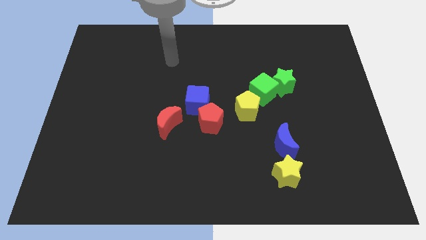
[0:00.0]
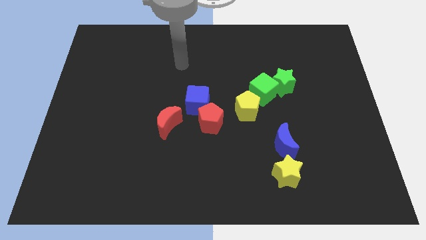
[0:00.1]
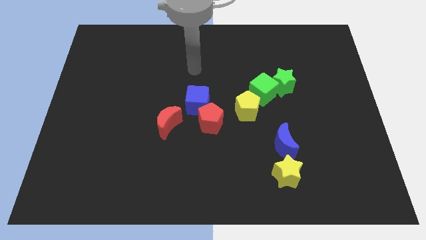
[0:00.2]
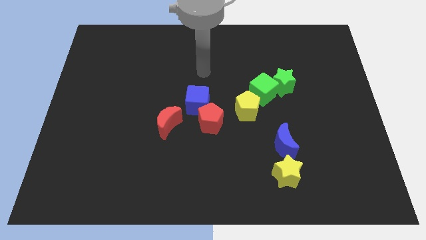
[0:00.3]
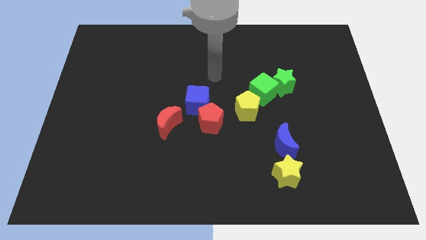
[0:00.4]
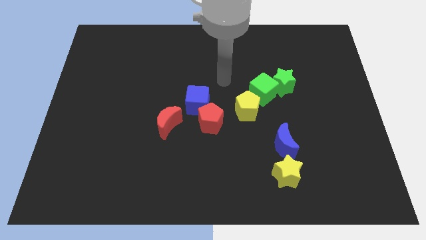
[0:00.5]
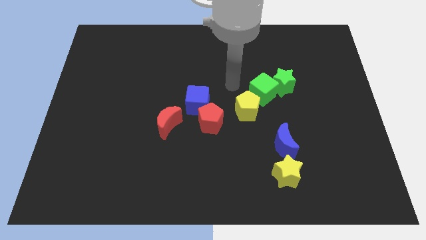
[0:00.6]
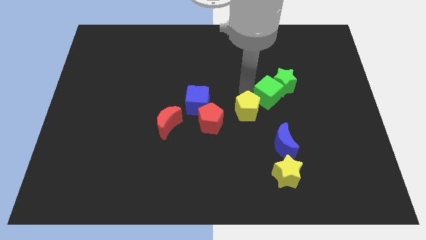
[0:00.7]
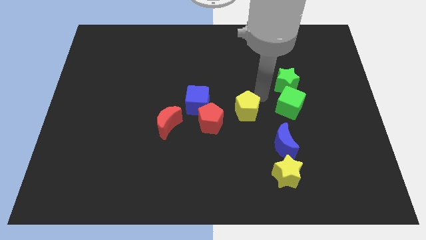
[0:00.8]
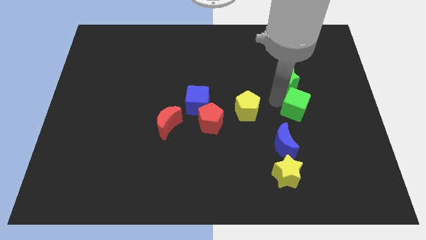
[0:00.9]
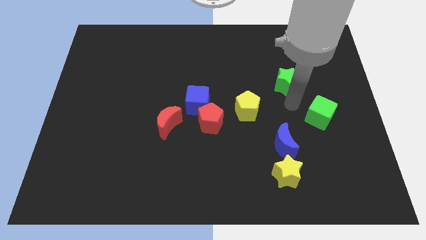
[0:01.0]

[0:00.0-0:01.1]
pull the green star apart from the green cube

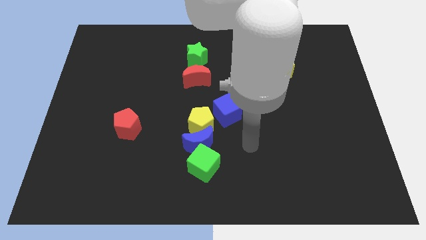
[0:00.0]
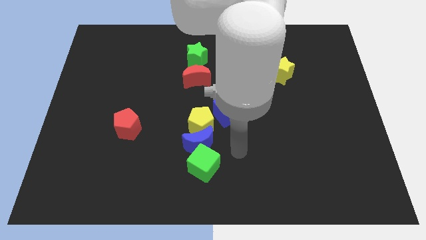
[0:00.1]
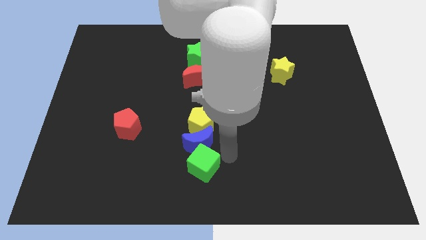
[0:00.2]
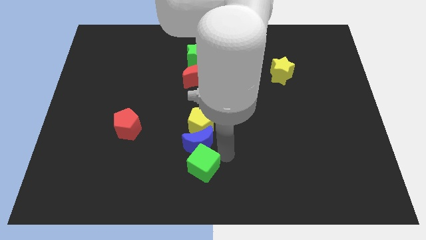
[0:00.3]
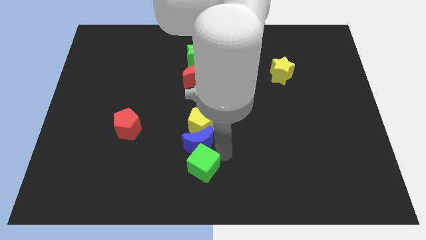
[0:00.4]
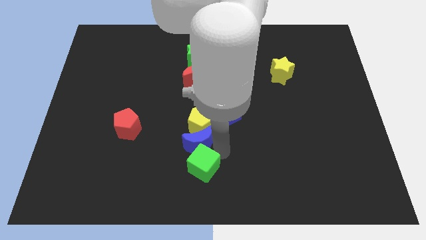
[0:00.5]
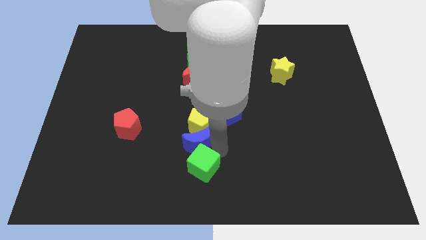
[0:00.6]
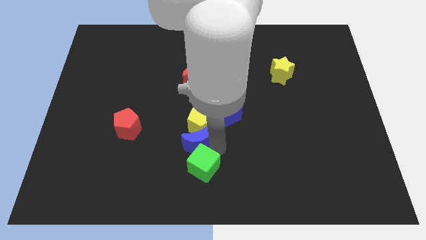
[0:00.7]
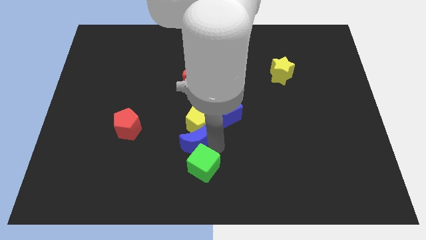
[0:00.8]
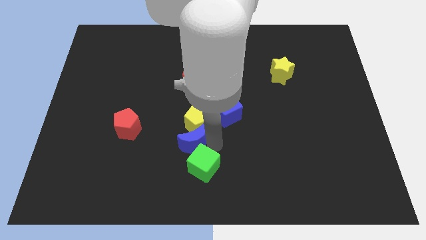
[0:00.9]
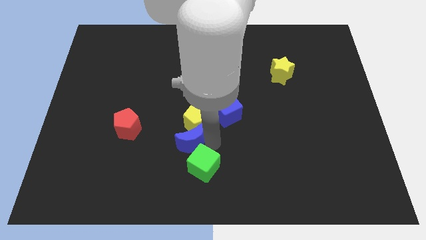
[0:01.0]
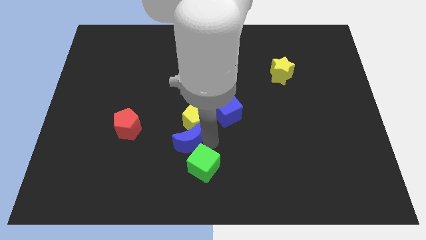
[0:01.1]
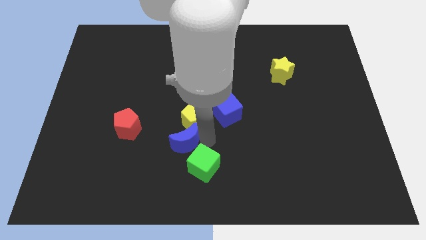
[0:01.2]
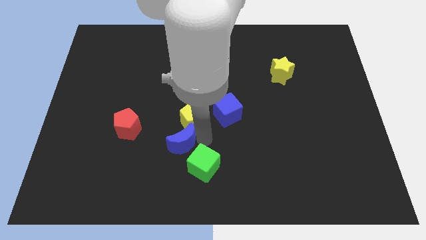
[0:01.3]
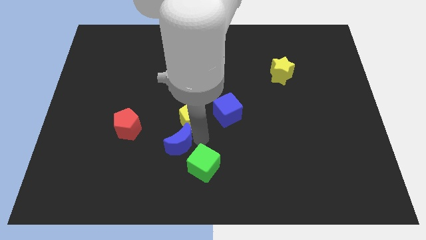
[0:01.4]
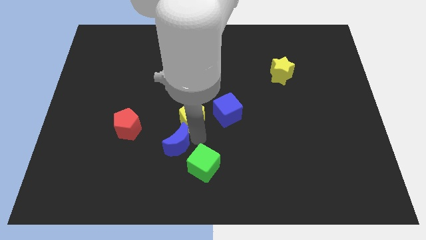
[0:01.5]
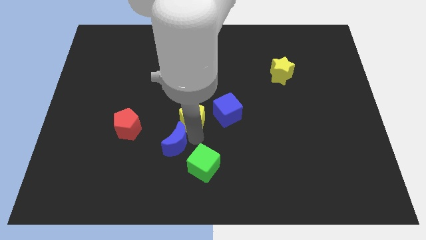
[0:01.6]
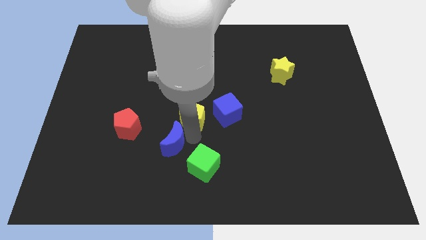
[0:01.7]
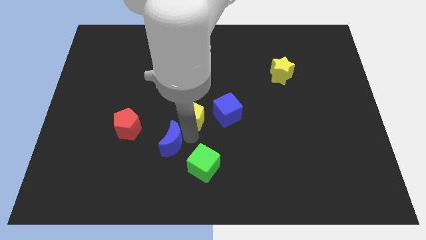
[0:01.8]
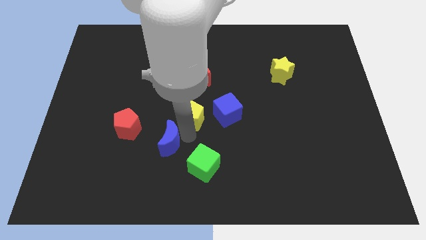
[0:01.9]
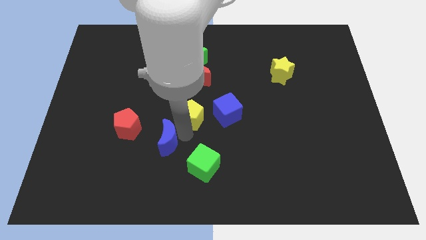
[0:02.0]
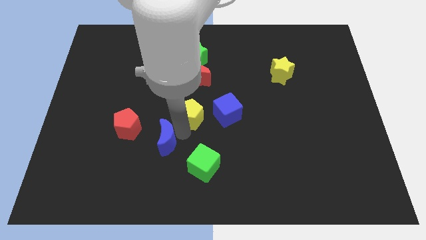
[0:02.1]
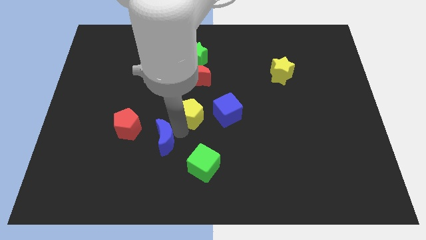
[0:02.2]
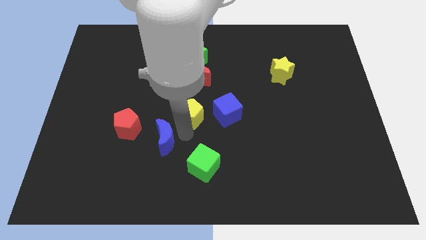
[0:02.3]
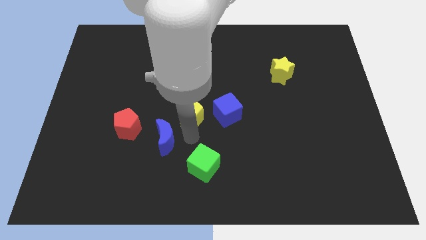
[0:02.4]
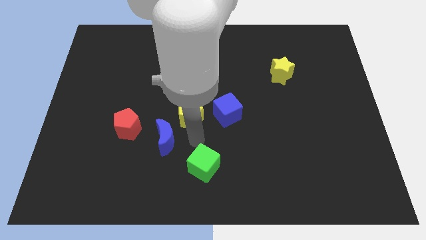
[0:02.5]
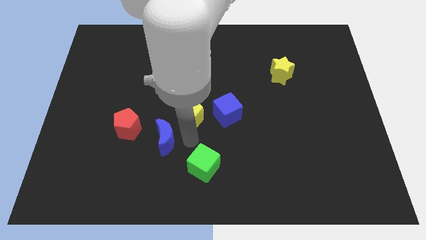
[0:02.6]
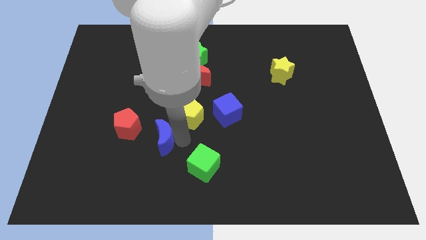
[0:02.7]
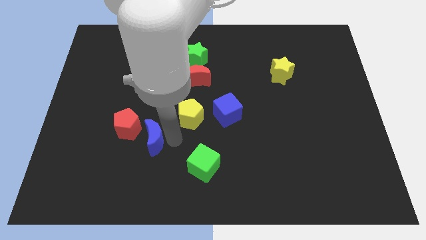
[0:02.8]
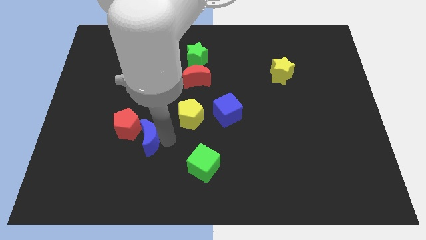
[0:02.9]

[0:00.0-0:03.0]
move the blue moon away from the yellow pentagon and green cube

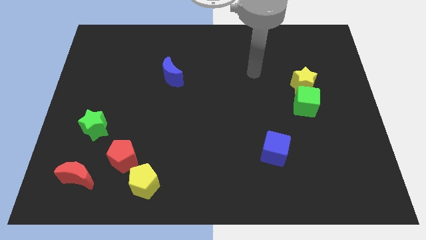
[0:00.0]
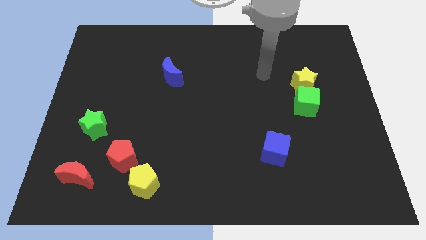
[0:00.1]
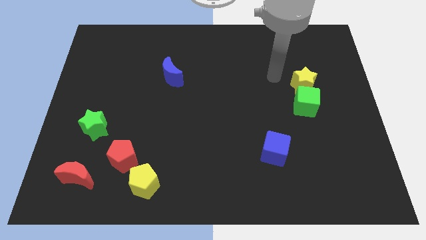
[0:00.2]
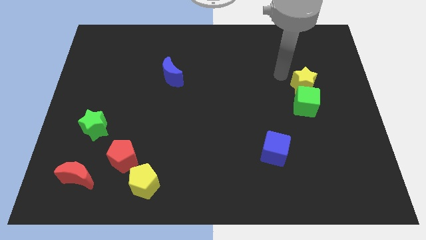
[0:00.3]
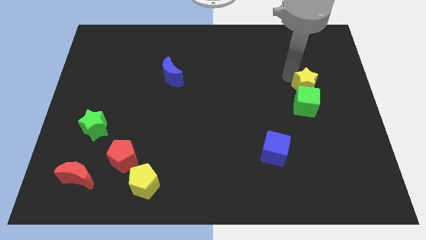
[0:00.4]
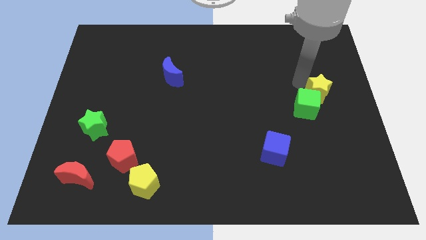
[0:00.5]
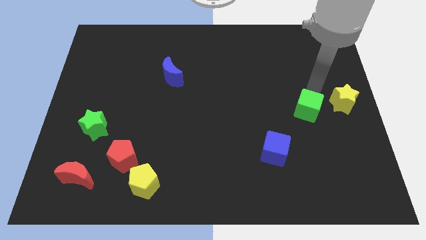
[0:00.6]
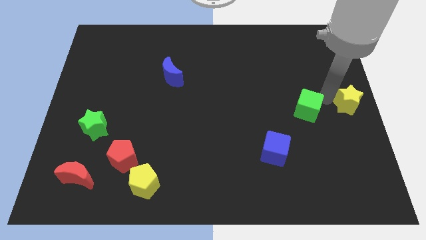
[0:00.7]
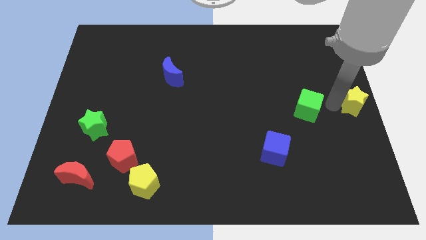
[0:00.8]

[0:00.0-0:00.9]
pull the green cube apart from the yellow star

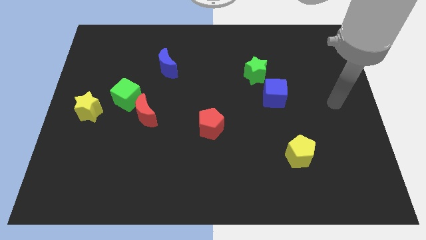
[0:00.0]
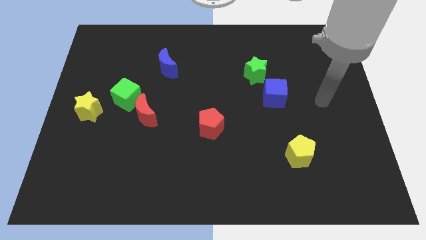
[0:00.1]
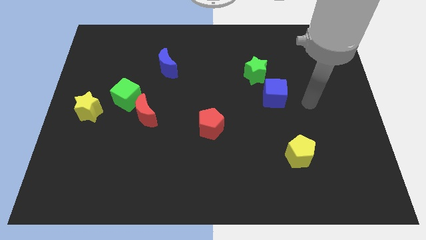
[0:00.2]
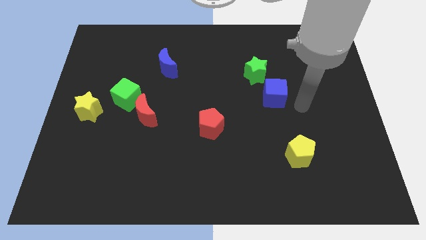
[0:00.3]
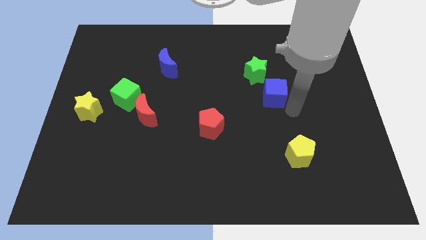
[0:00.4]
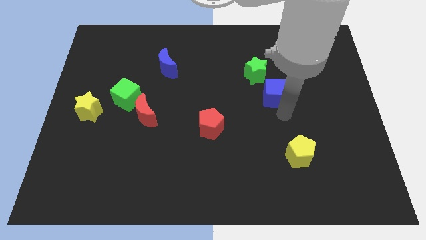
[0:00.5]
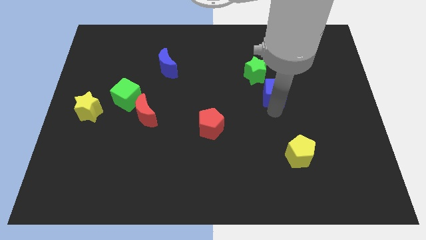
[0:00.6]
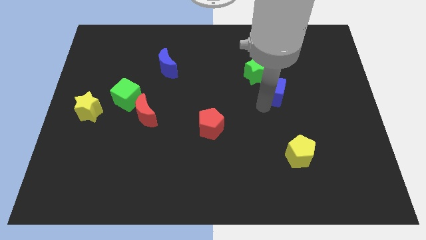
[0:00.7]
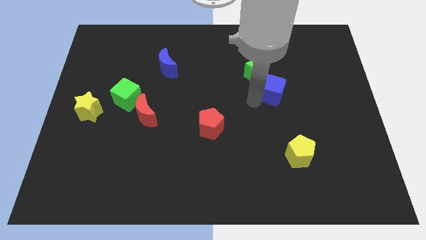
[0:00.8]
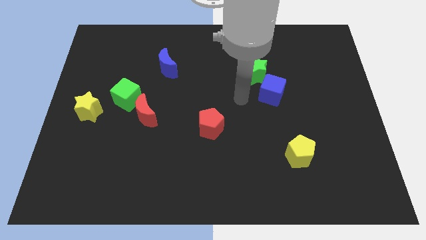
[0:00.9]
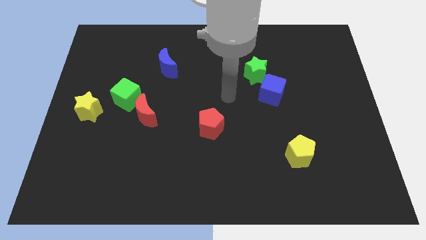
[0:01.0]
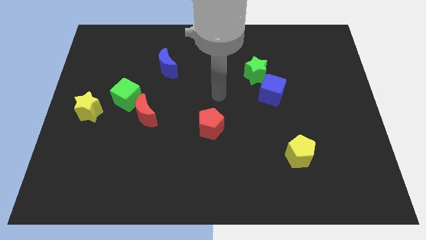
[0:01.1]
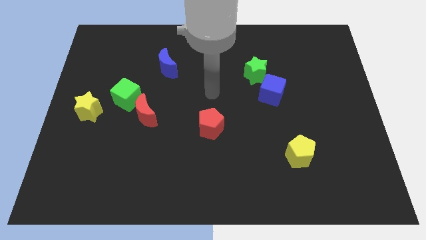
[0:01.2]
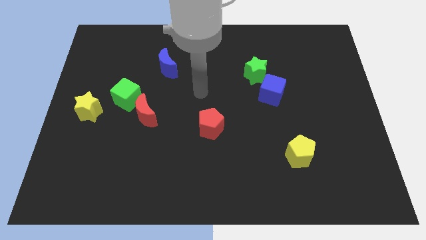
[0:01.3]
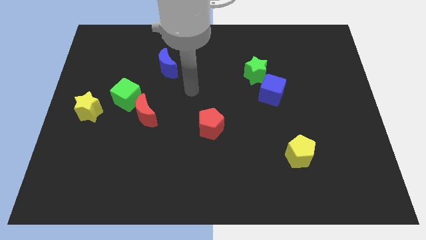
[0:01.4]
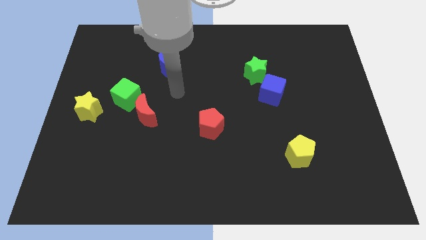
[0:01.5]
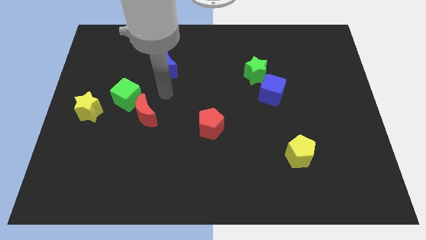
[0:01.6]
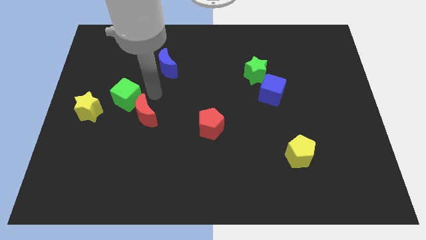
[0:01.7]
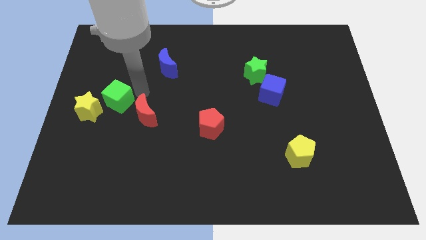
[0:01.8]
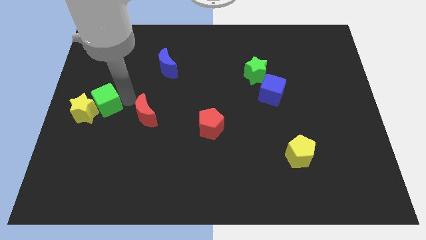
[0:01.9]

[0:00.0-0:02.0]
move the red moon away from the green cube

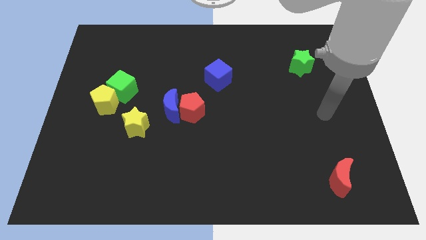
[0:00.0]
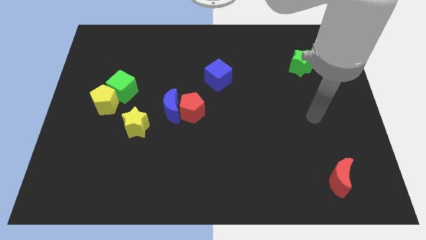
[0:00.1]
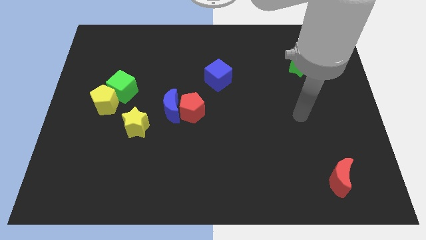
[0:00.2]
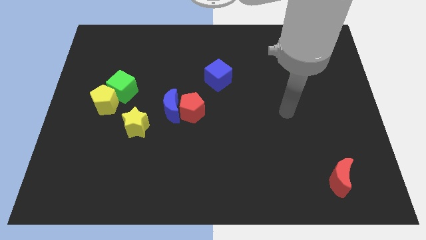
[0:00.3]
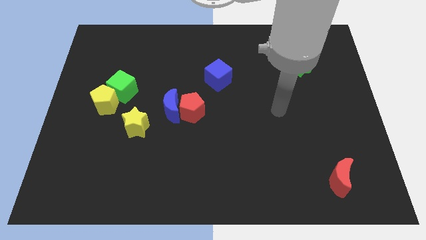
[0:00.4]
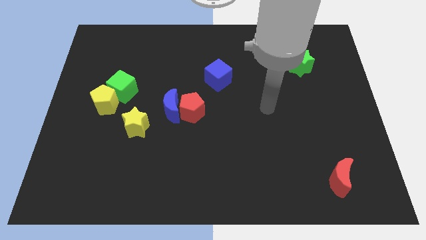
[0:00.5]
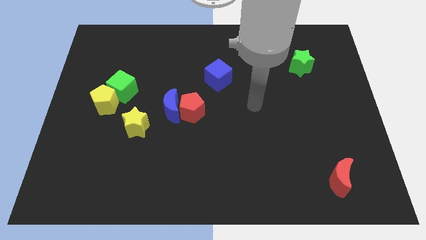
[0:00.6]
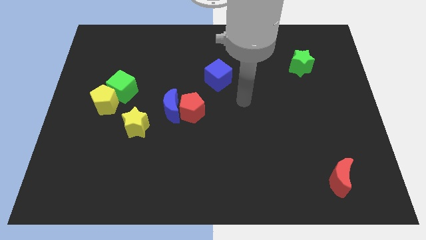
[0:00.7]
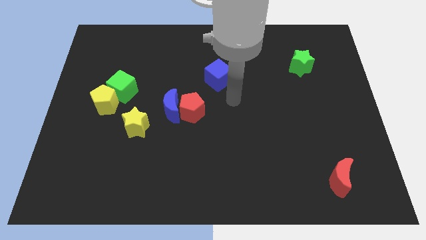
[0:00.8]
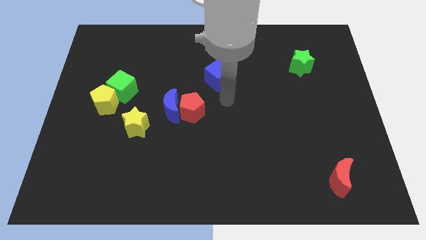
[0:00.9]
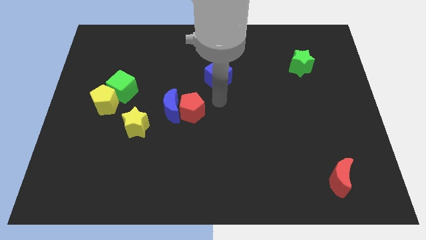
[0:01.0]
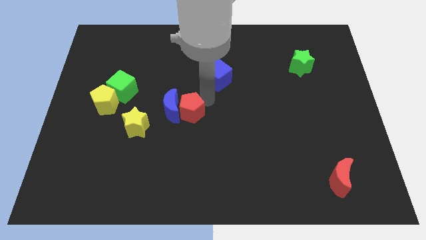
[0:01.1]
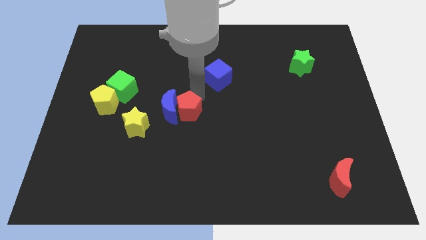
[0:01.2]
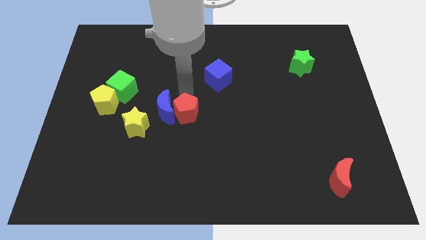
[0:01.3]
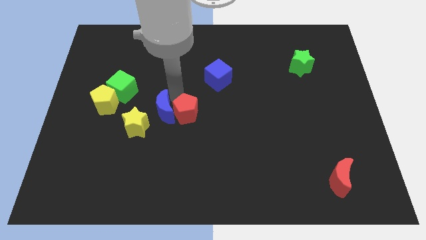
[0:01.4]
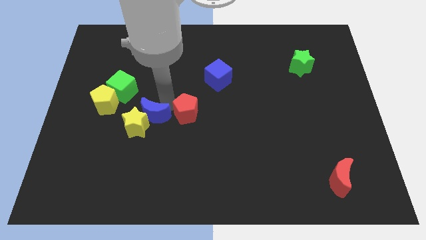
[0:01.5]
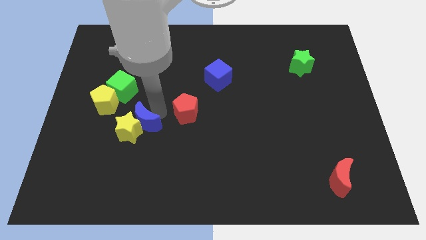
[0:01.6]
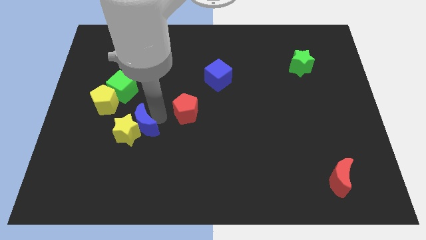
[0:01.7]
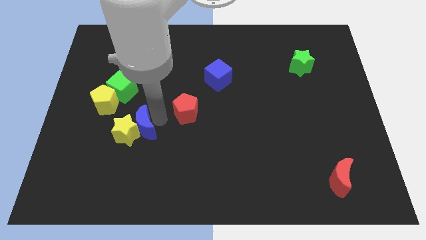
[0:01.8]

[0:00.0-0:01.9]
separate the red pentagon from the blue moon

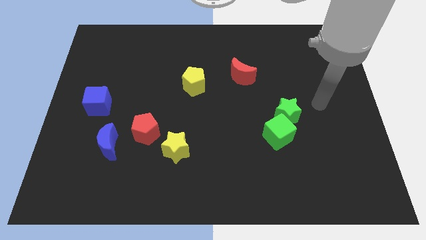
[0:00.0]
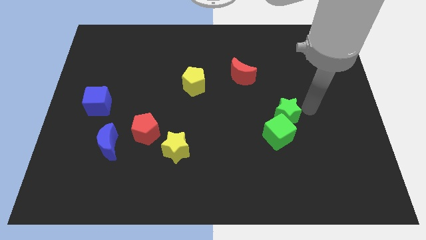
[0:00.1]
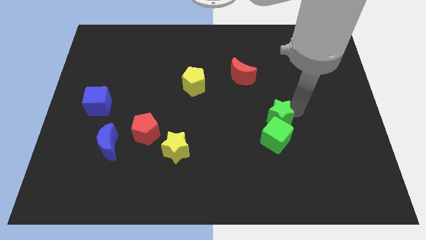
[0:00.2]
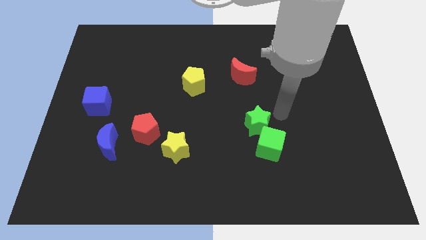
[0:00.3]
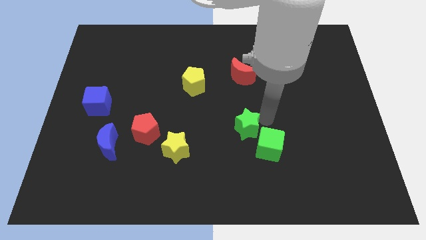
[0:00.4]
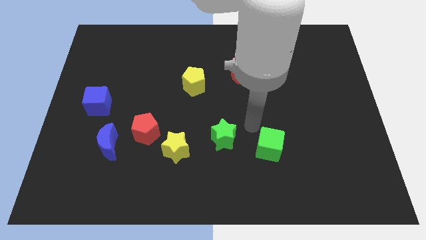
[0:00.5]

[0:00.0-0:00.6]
move the green cube away from the green star
